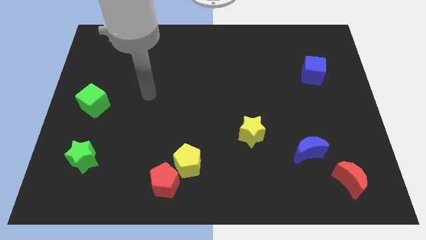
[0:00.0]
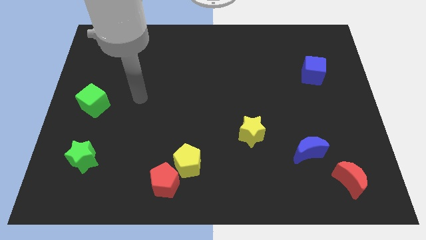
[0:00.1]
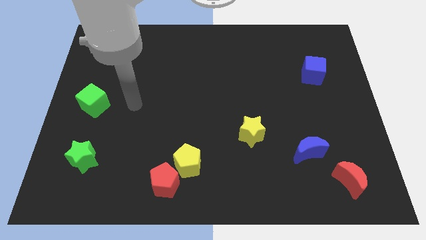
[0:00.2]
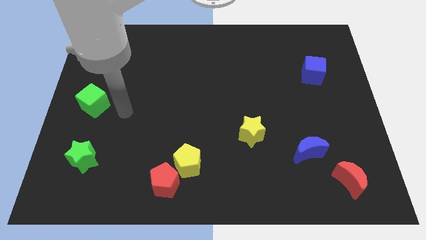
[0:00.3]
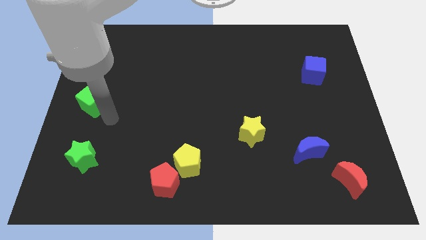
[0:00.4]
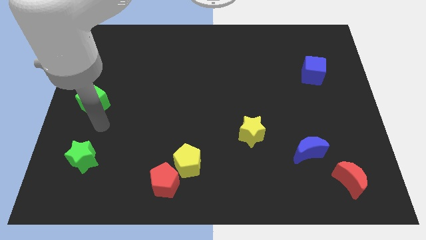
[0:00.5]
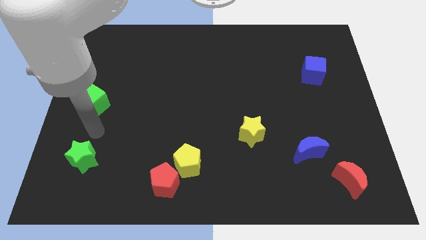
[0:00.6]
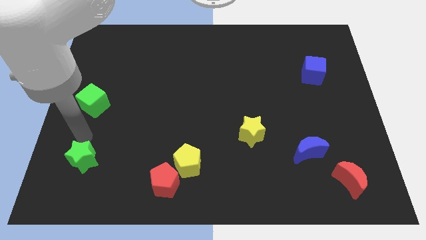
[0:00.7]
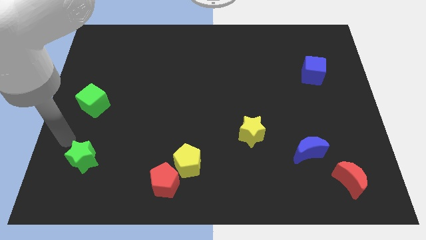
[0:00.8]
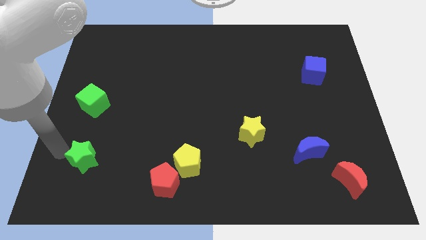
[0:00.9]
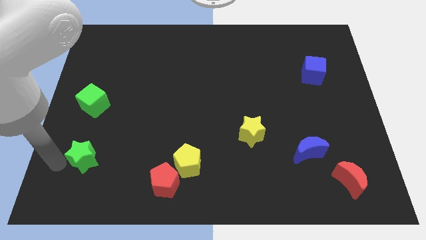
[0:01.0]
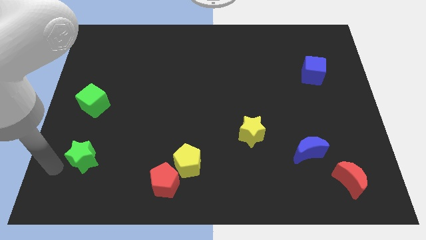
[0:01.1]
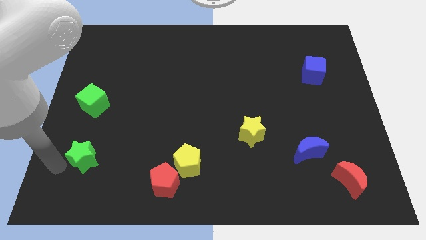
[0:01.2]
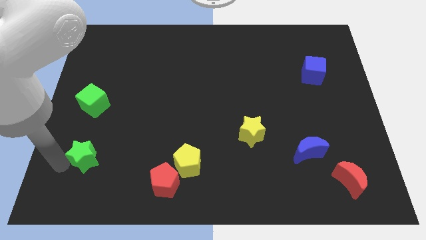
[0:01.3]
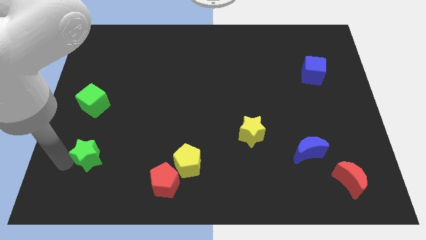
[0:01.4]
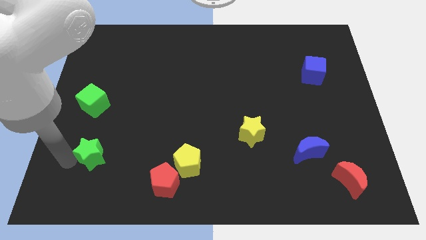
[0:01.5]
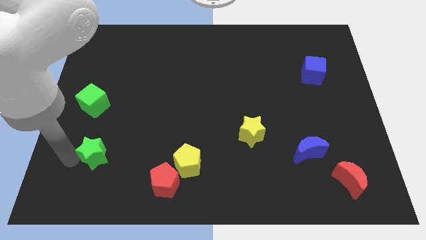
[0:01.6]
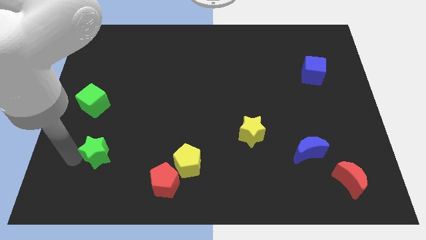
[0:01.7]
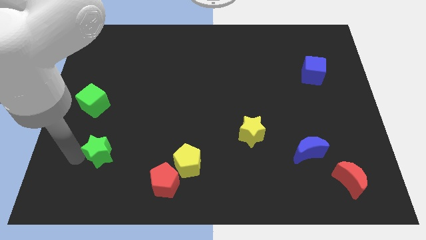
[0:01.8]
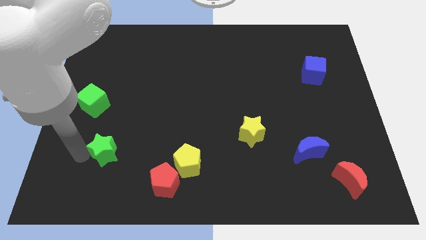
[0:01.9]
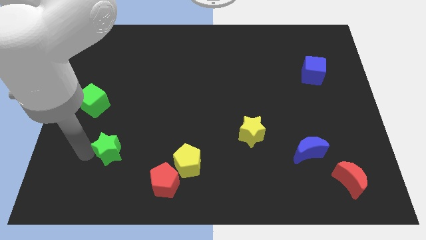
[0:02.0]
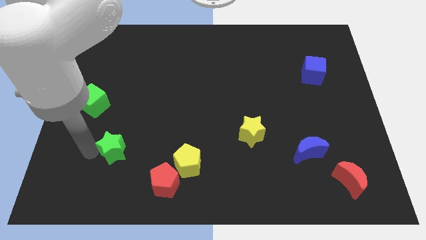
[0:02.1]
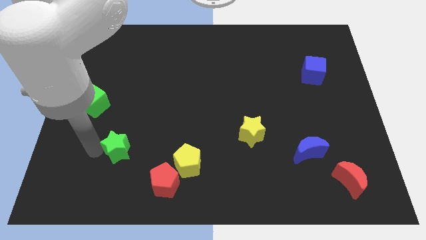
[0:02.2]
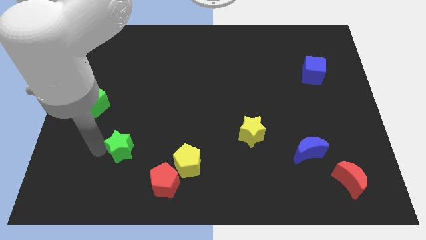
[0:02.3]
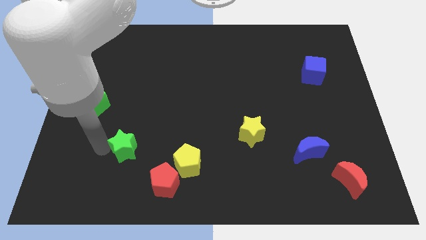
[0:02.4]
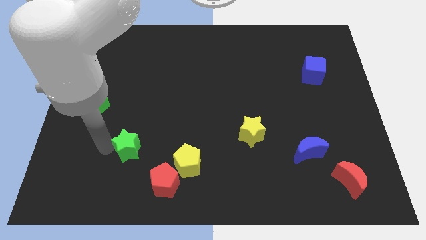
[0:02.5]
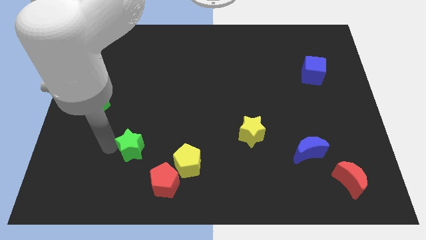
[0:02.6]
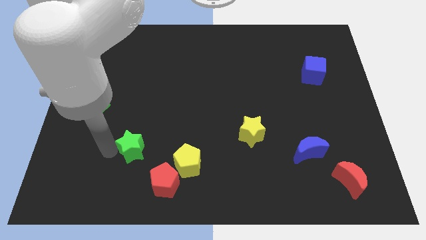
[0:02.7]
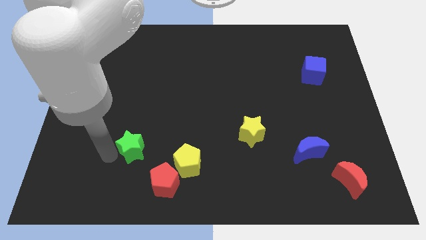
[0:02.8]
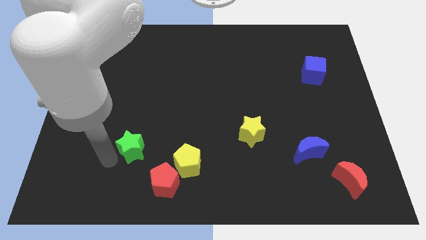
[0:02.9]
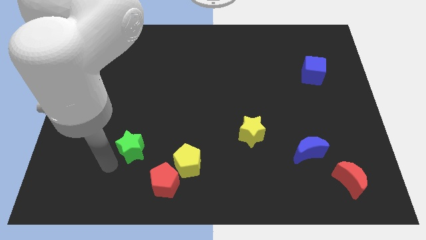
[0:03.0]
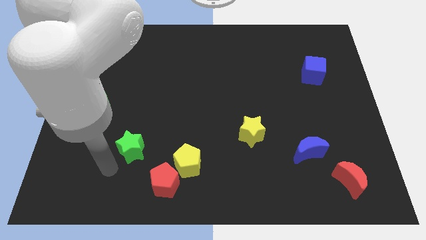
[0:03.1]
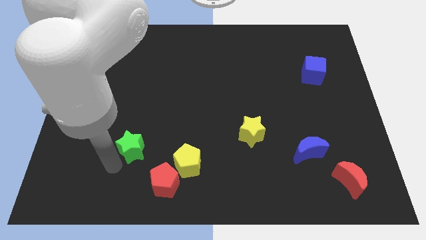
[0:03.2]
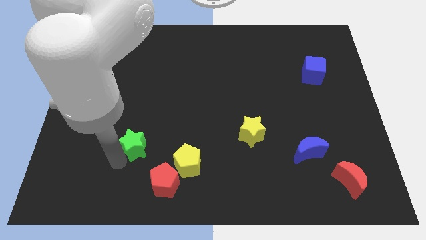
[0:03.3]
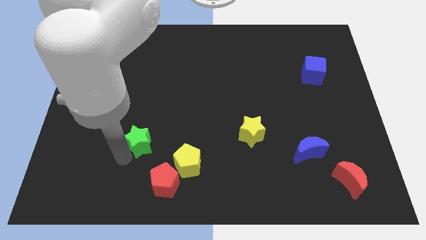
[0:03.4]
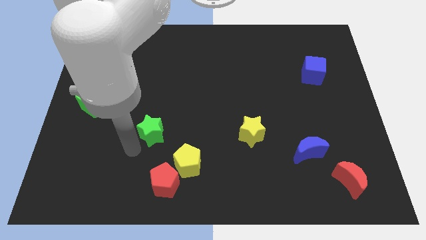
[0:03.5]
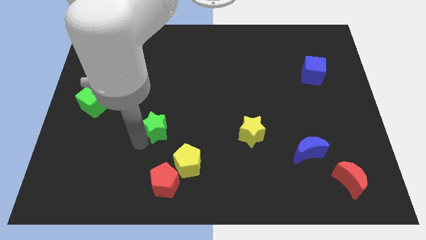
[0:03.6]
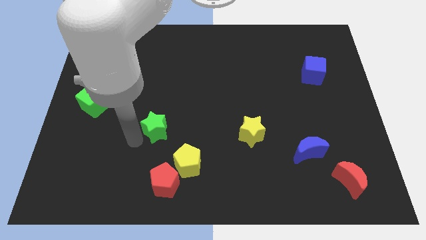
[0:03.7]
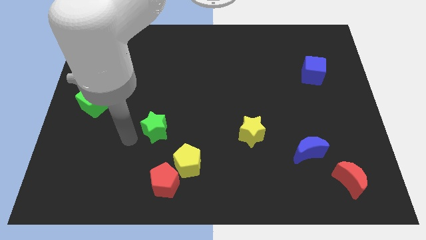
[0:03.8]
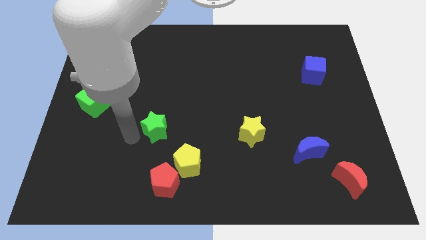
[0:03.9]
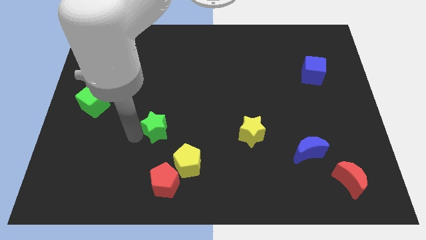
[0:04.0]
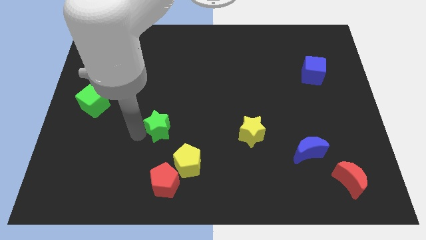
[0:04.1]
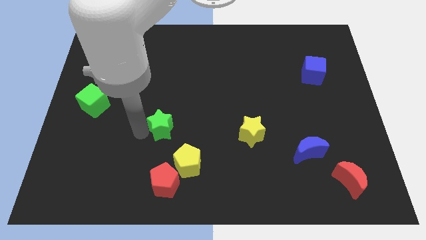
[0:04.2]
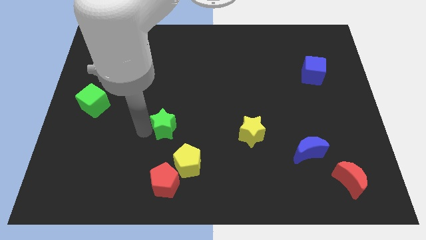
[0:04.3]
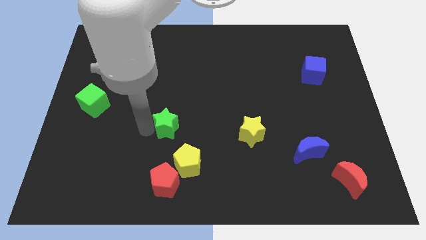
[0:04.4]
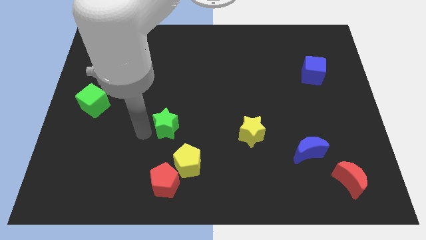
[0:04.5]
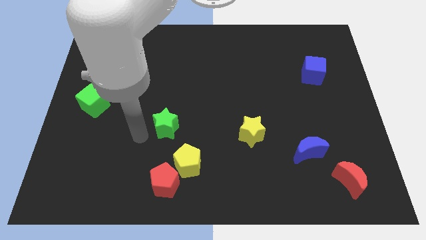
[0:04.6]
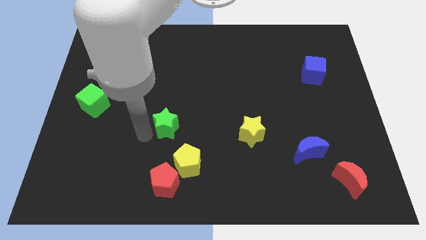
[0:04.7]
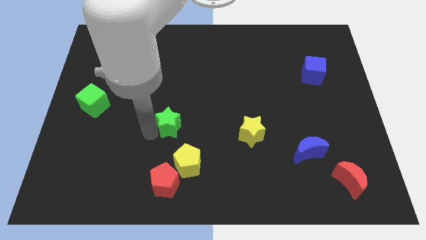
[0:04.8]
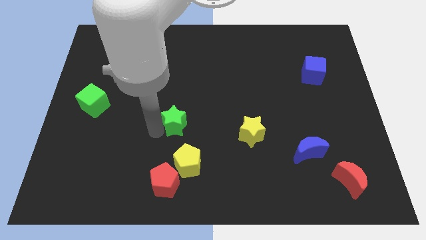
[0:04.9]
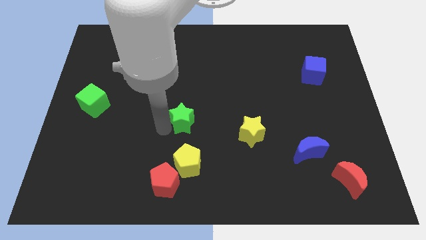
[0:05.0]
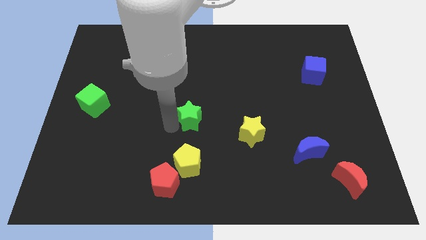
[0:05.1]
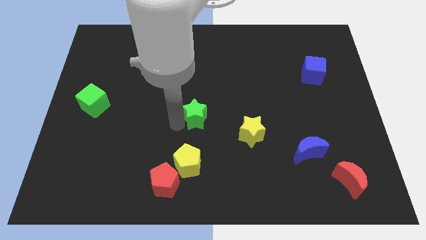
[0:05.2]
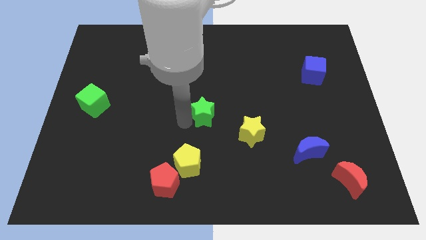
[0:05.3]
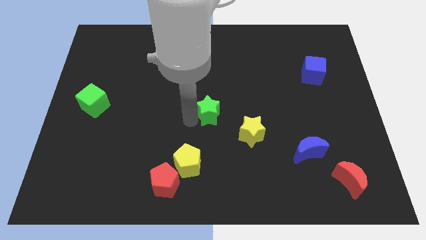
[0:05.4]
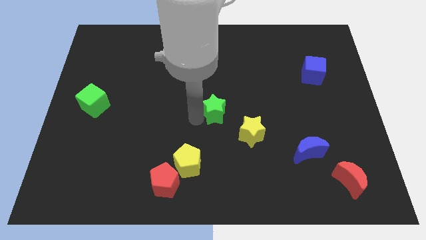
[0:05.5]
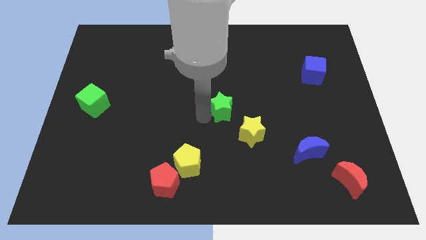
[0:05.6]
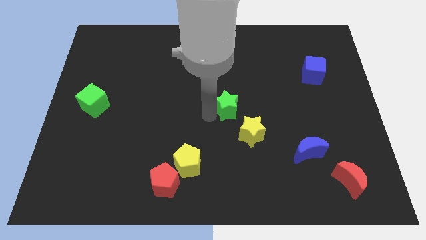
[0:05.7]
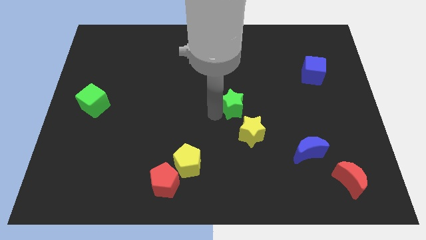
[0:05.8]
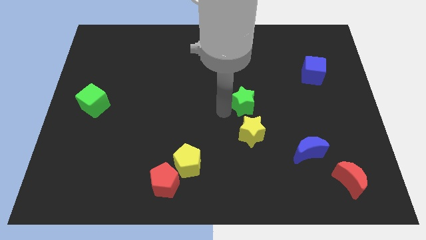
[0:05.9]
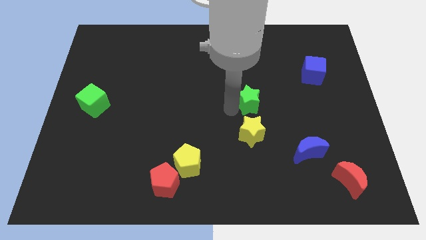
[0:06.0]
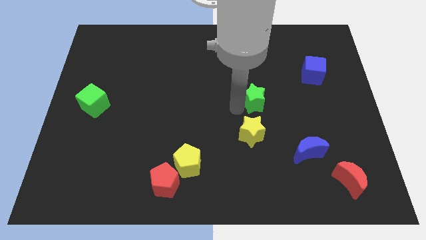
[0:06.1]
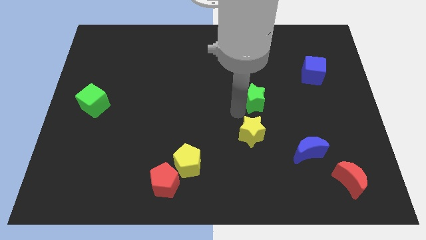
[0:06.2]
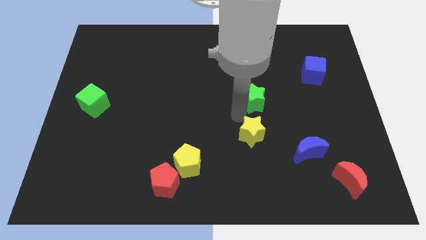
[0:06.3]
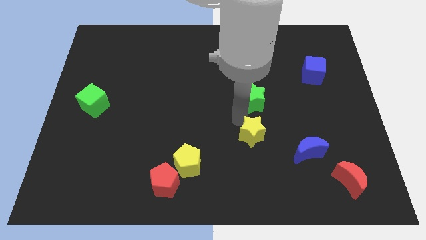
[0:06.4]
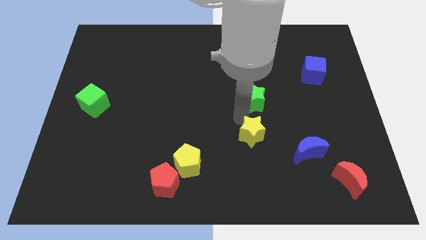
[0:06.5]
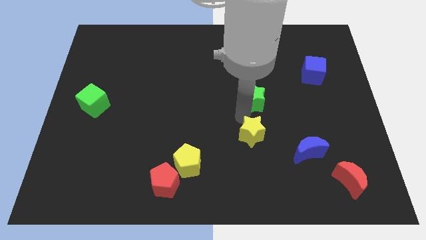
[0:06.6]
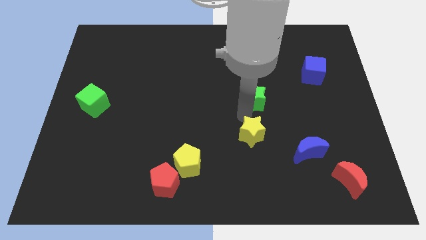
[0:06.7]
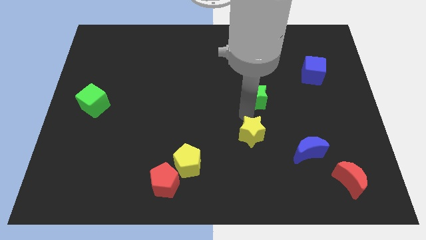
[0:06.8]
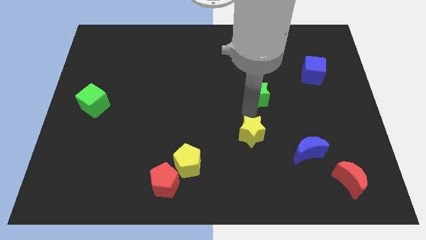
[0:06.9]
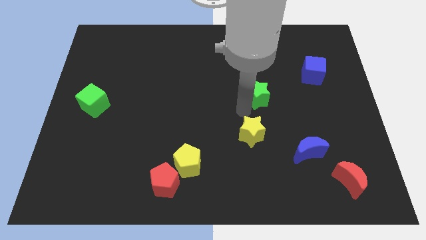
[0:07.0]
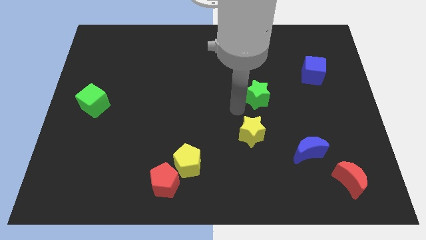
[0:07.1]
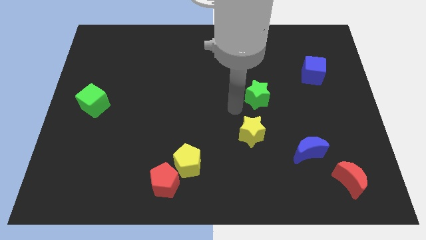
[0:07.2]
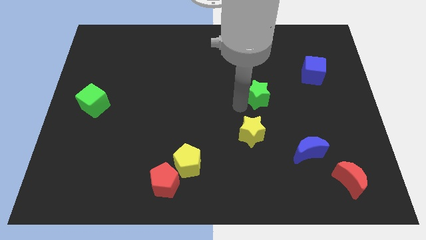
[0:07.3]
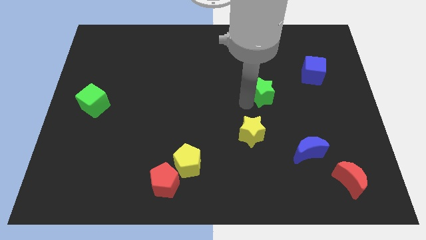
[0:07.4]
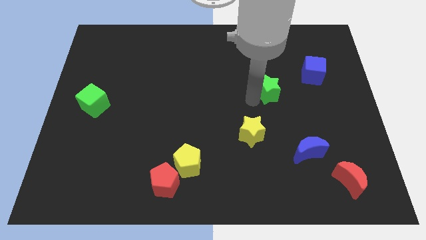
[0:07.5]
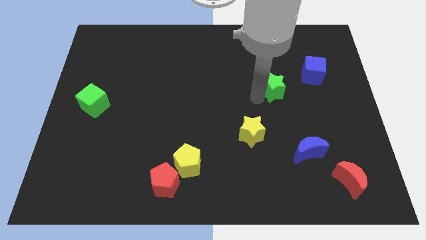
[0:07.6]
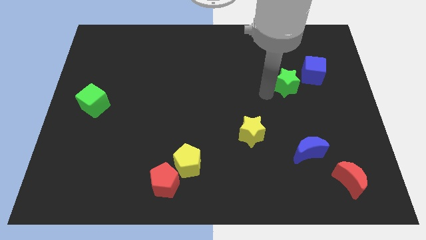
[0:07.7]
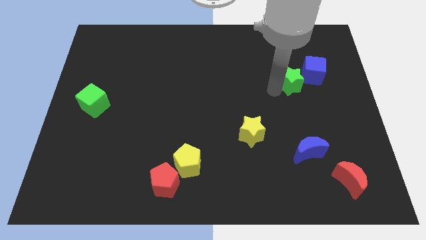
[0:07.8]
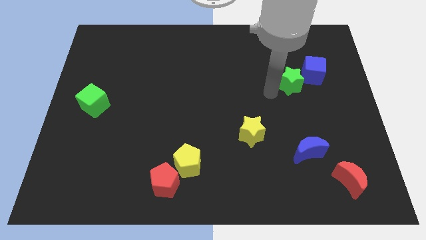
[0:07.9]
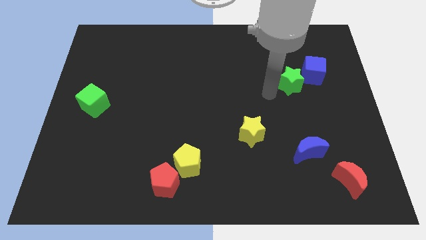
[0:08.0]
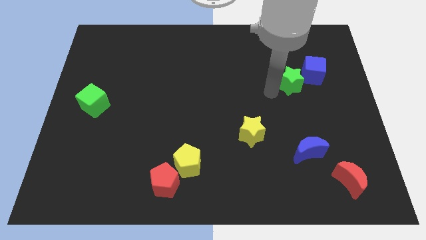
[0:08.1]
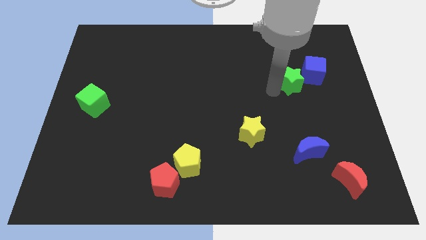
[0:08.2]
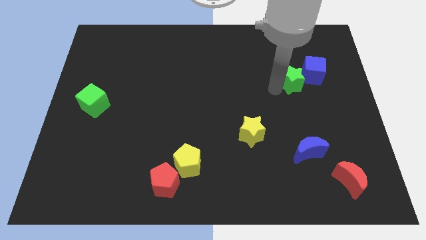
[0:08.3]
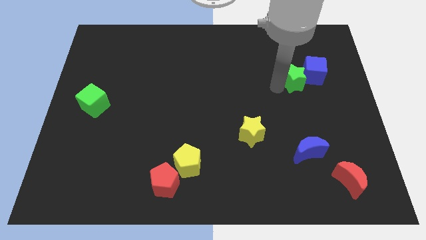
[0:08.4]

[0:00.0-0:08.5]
slide the green star close to the blue cube
